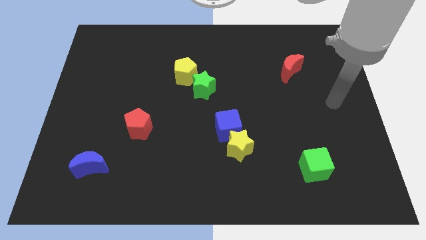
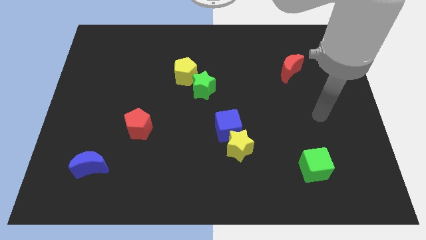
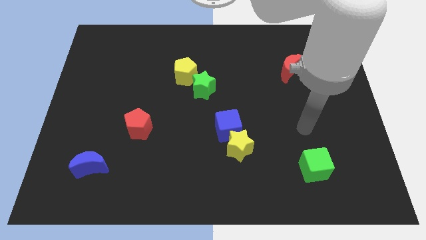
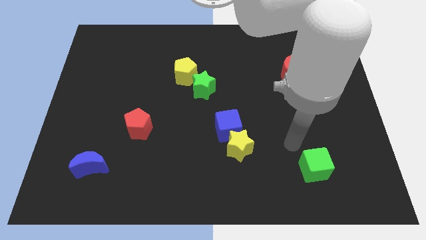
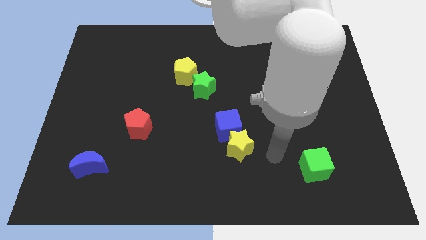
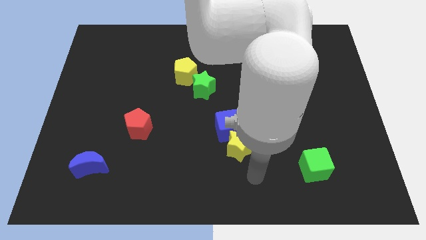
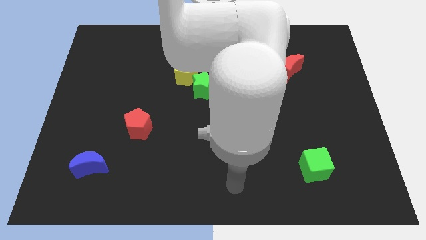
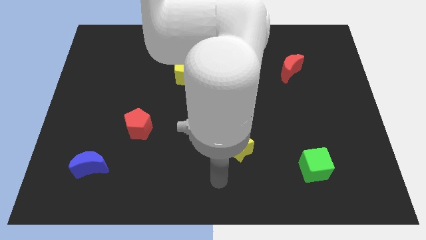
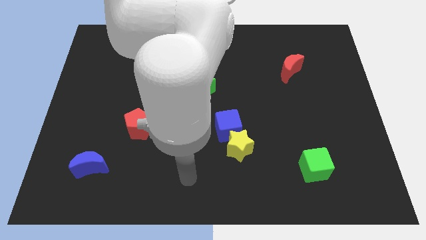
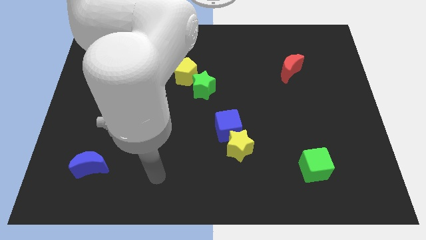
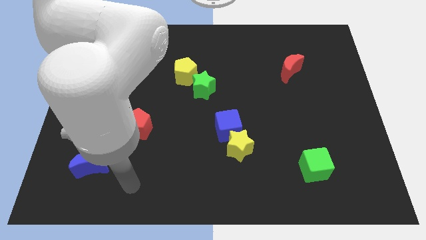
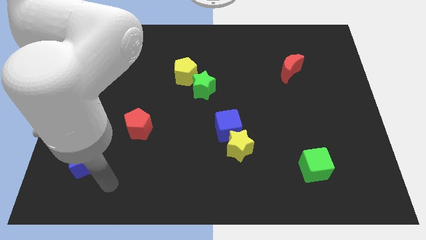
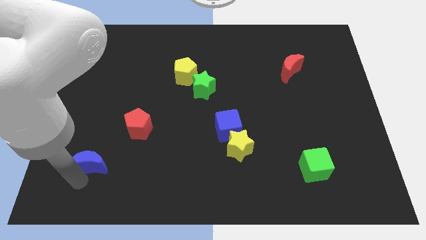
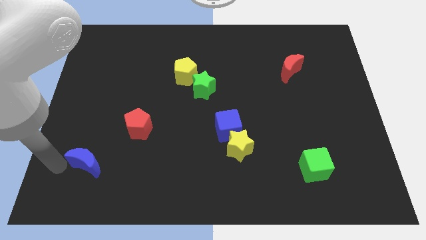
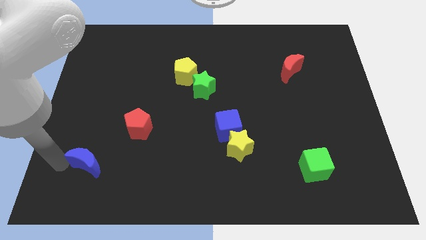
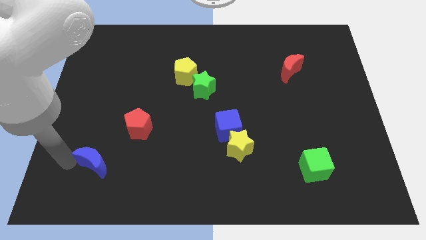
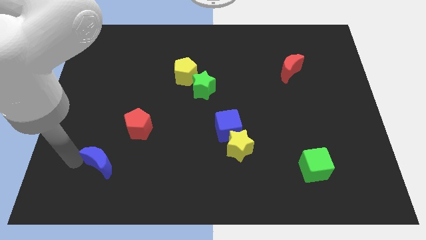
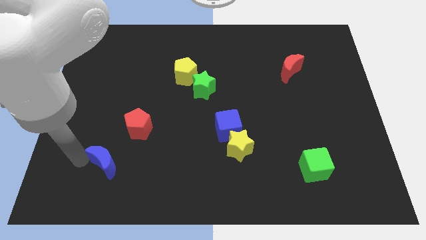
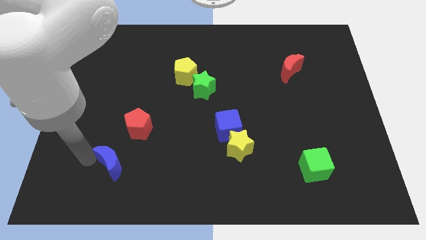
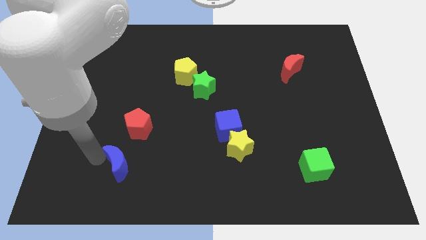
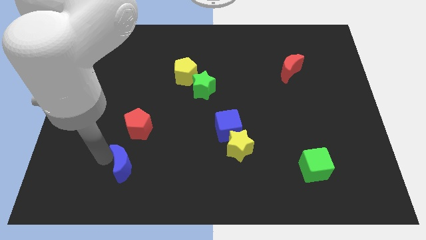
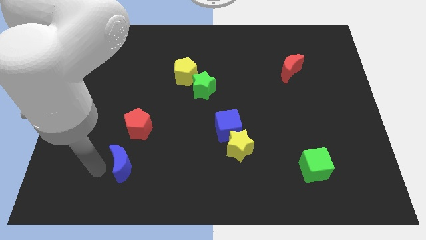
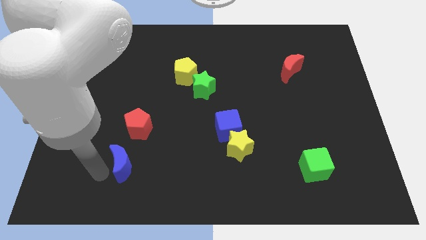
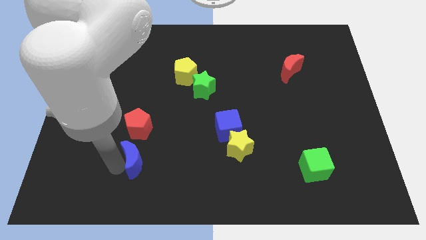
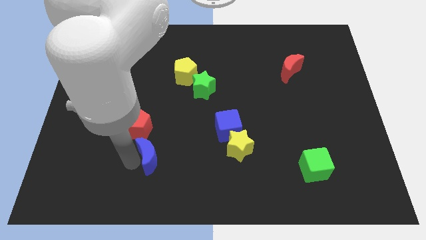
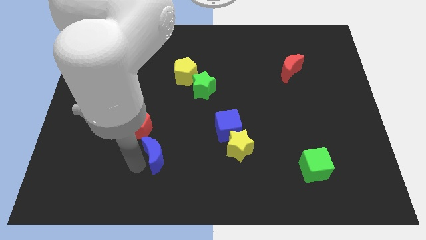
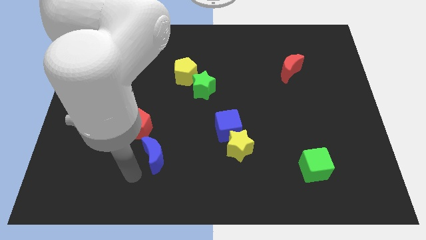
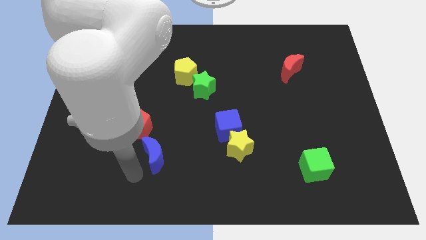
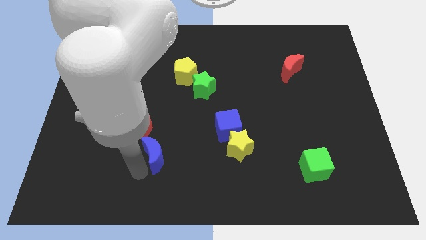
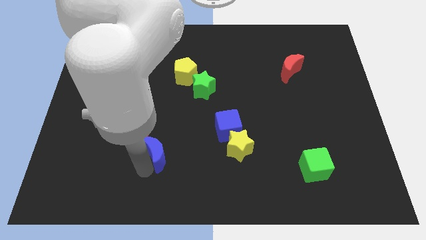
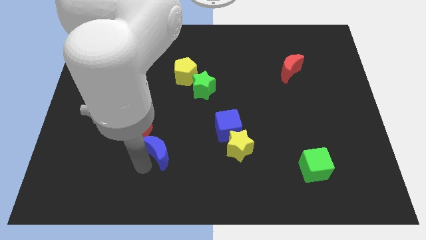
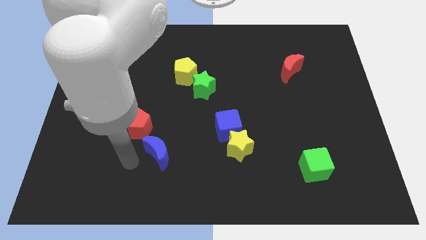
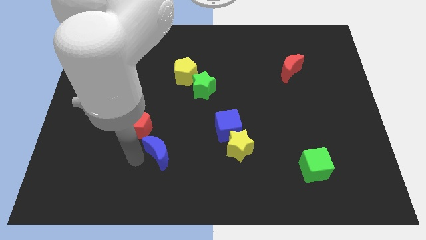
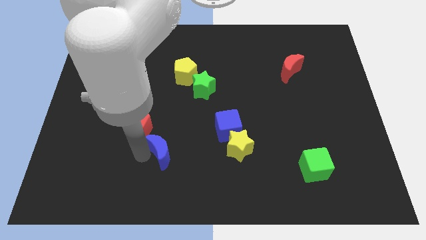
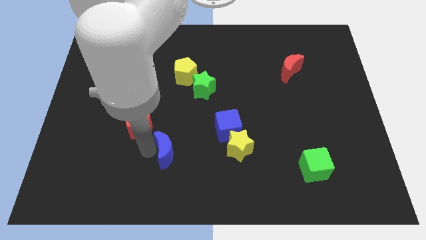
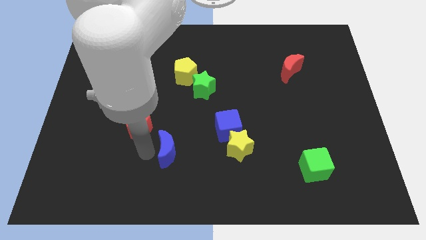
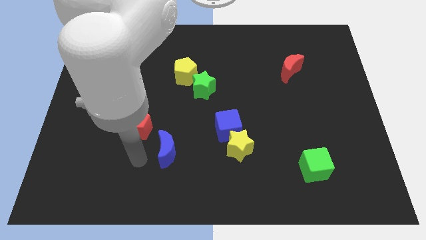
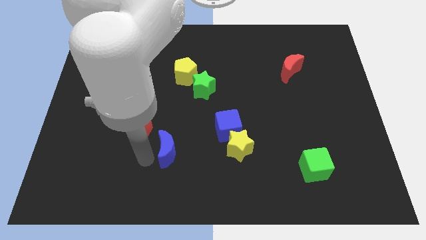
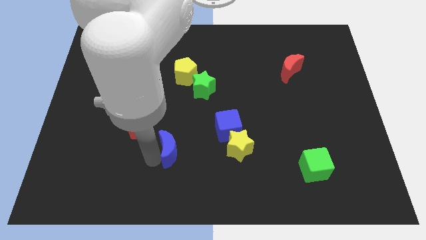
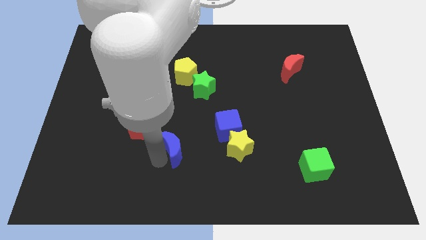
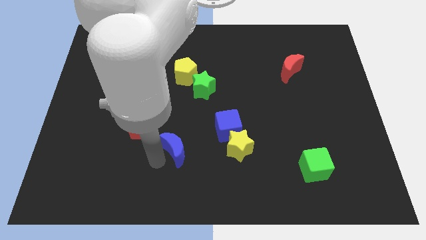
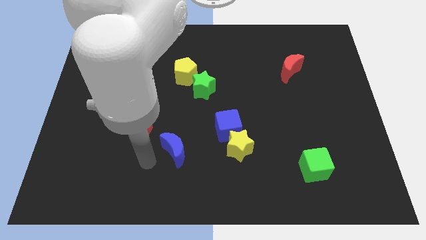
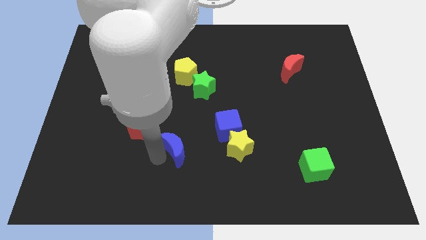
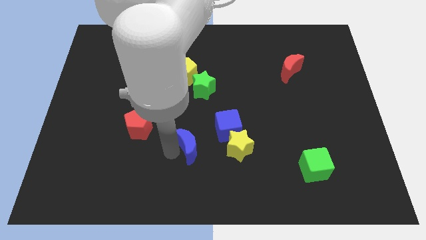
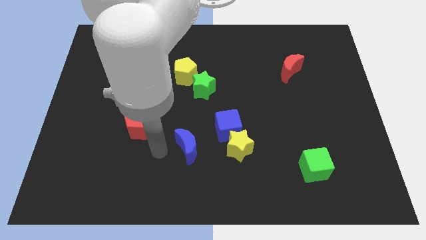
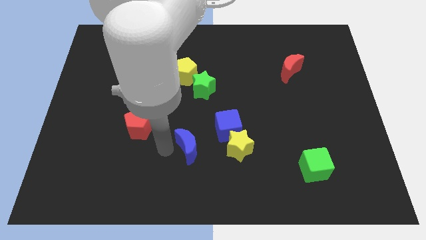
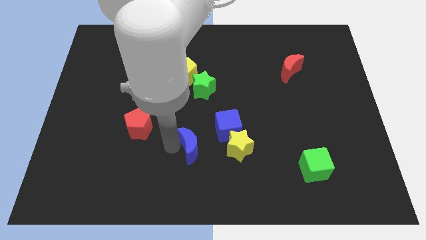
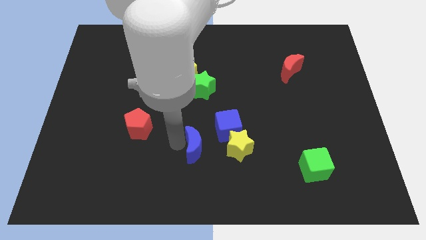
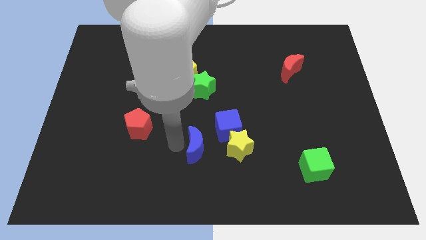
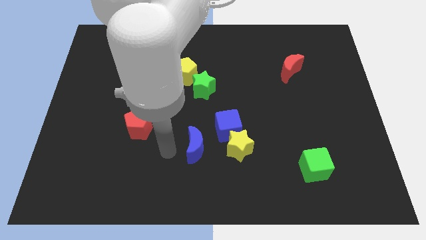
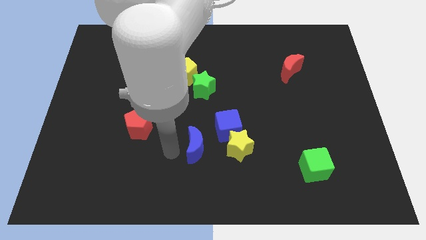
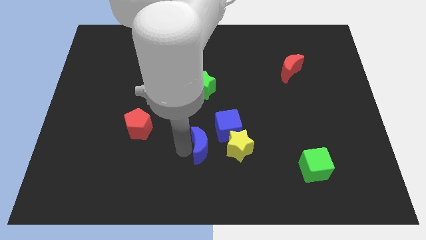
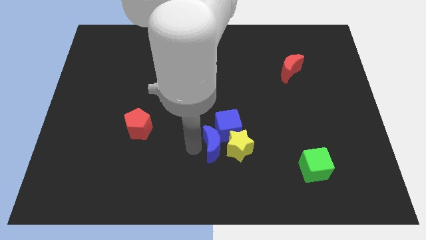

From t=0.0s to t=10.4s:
slide the blue moon close to the yellow star

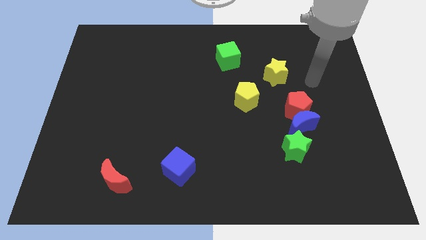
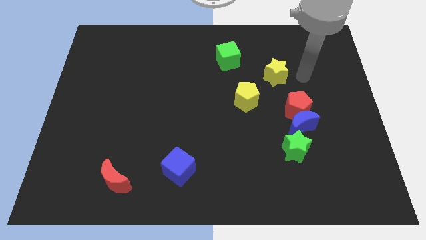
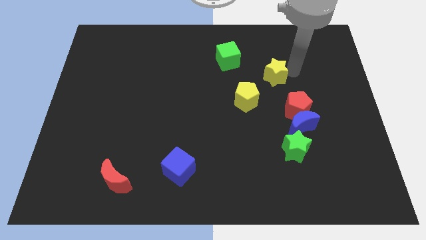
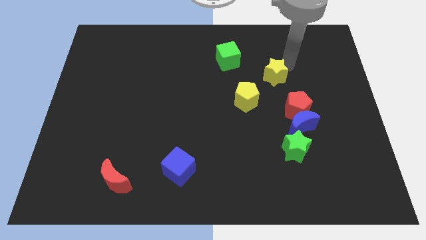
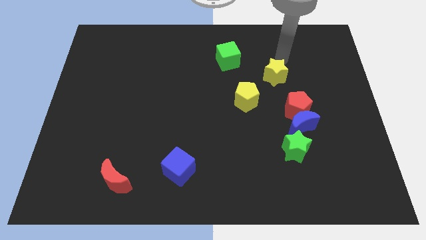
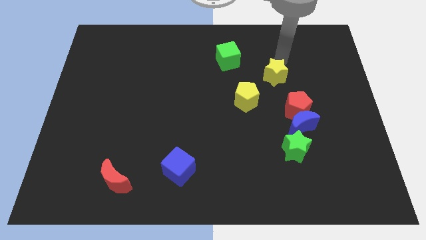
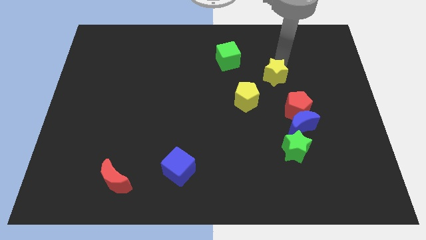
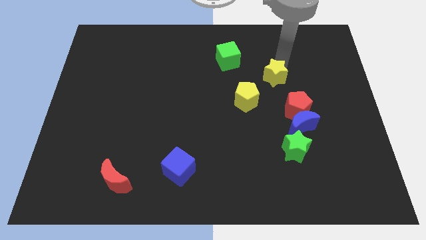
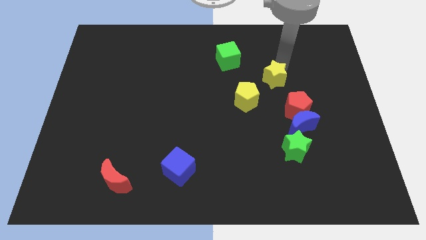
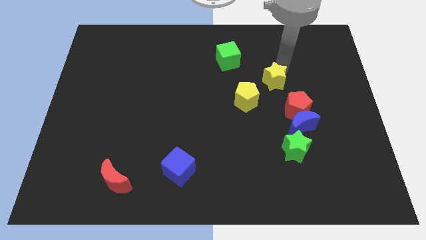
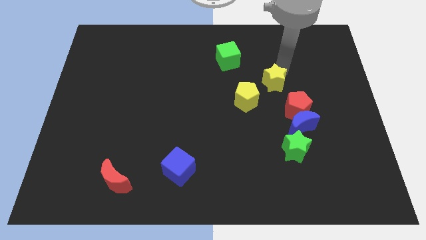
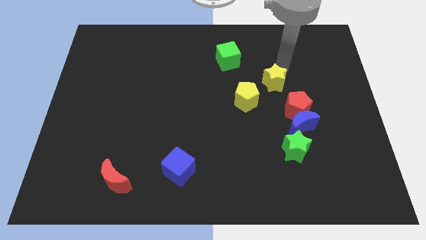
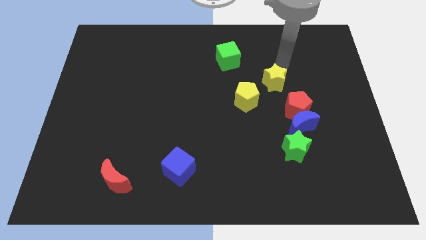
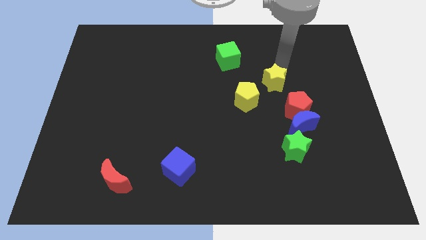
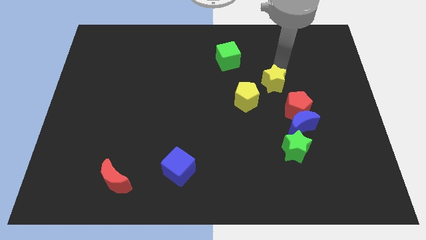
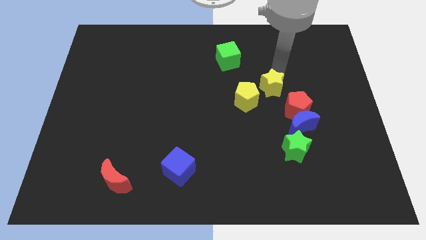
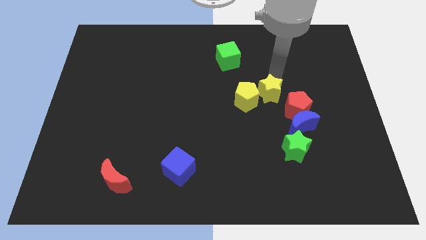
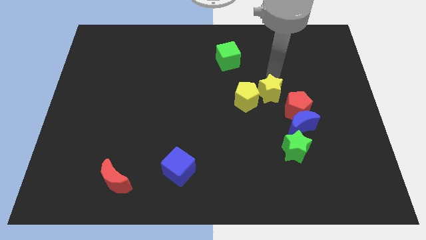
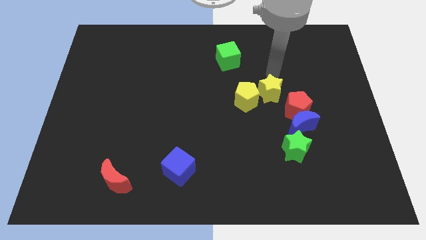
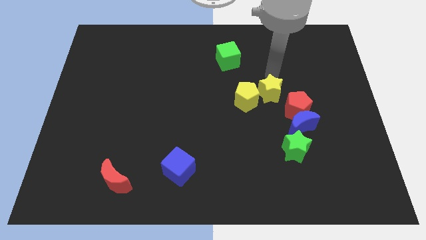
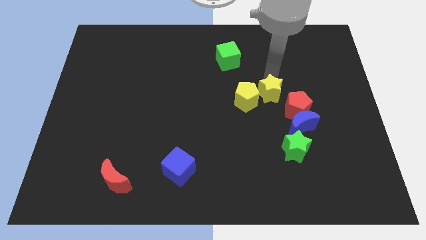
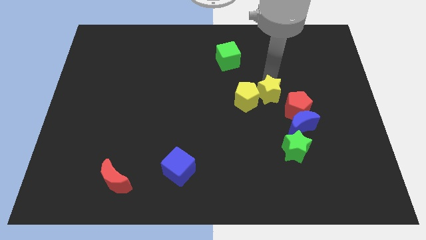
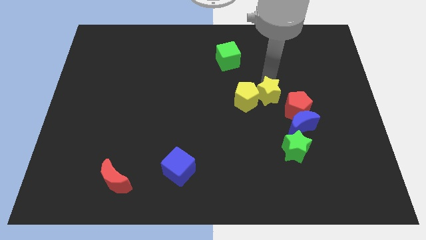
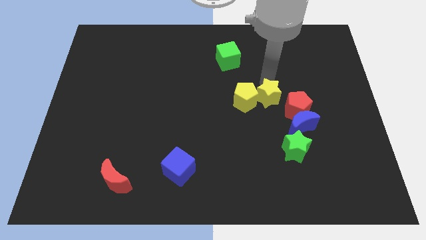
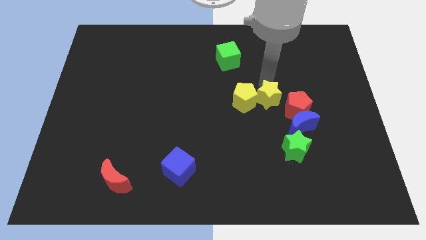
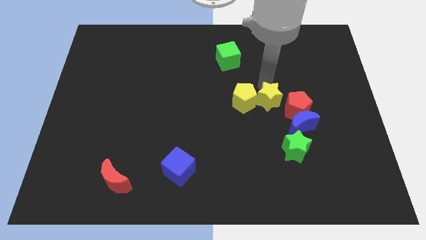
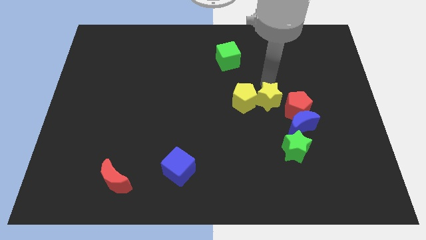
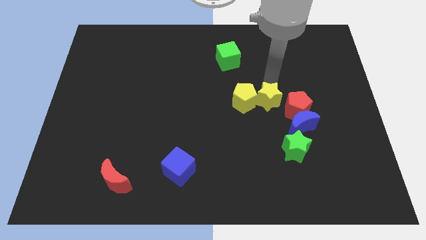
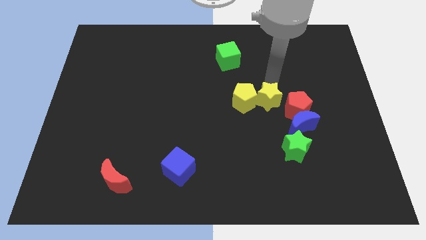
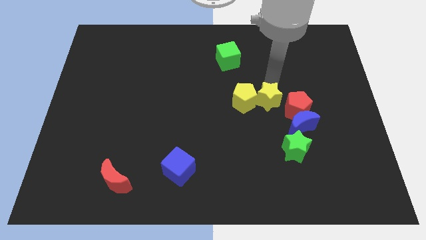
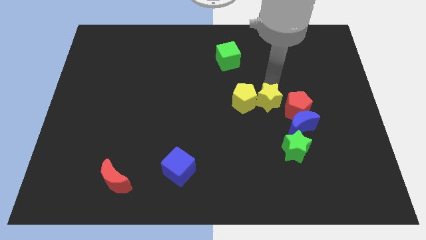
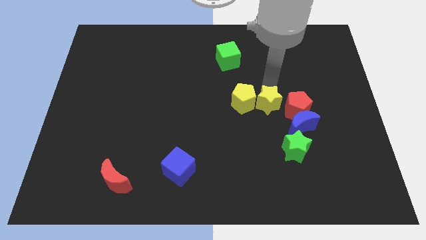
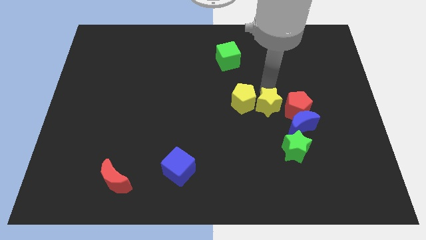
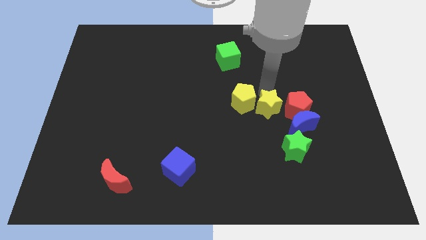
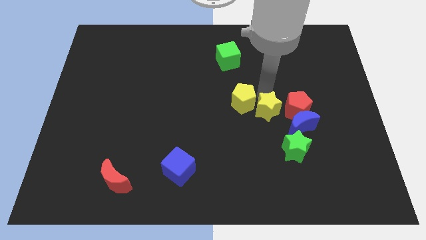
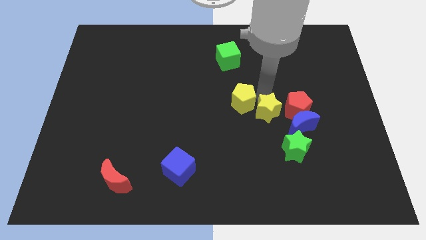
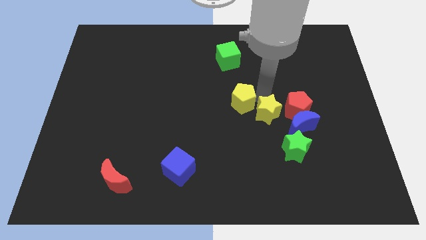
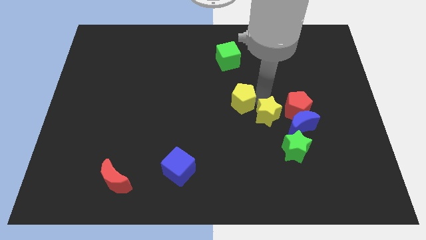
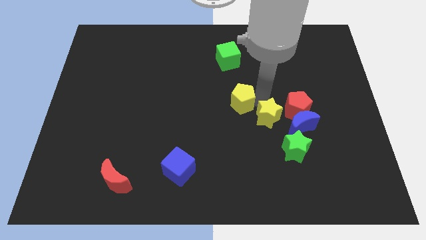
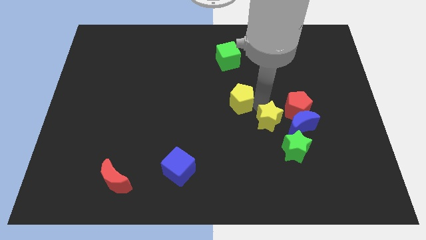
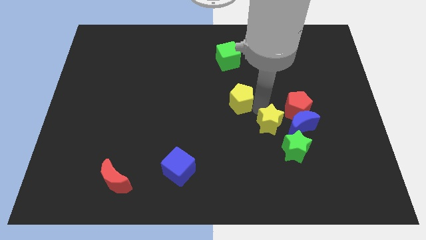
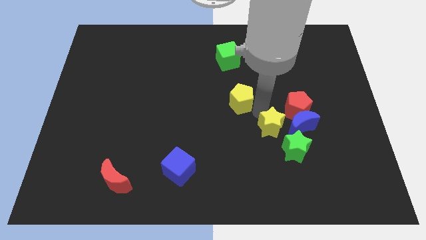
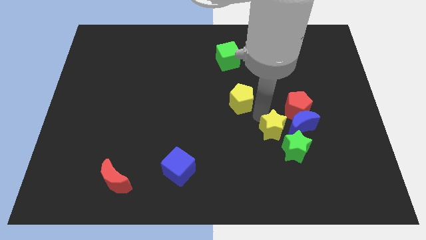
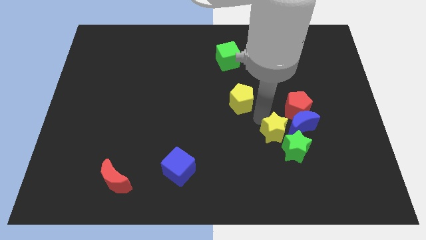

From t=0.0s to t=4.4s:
slide the yellow star to the green star
